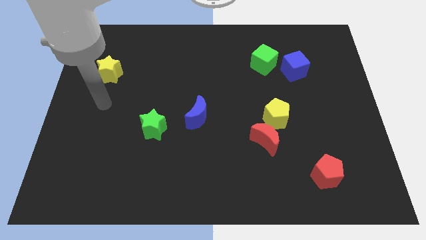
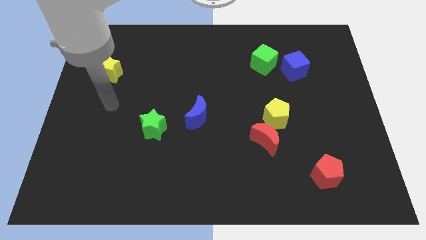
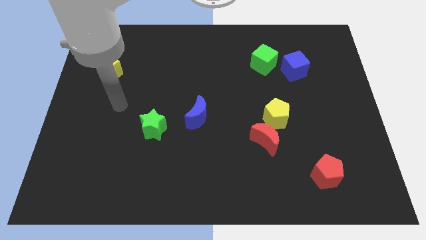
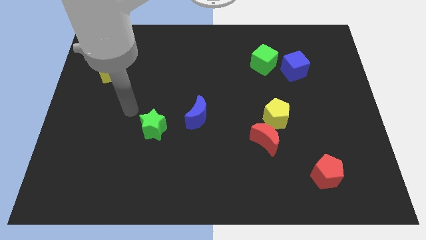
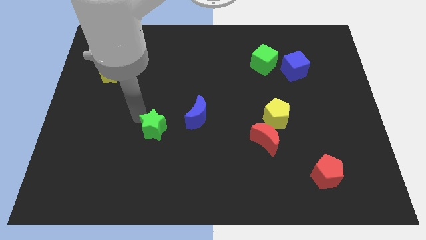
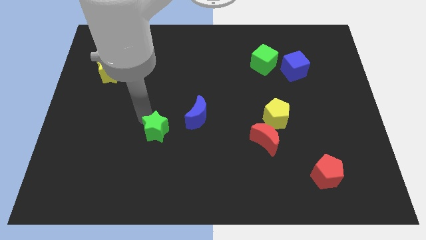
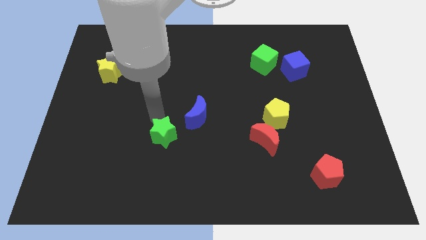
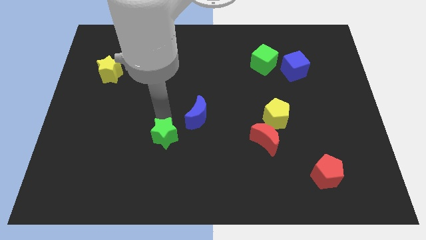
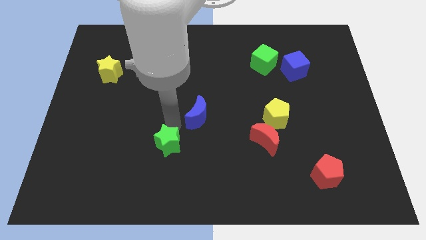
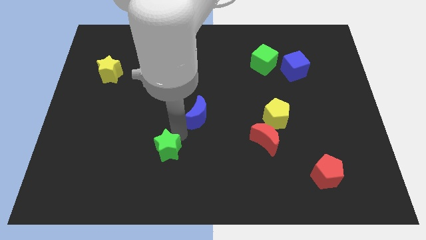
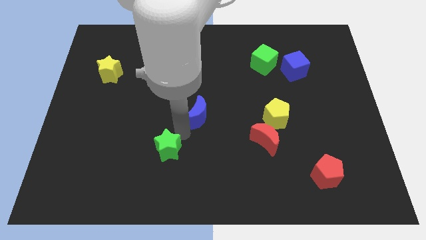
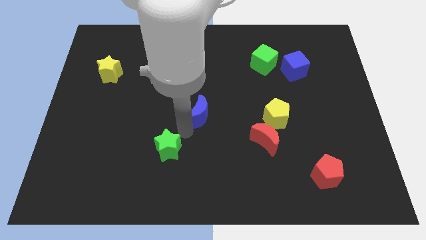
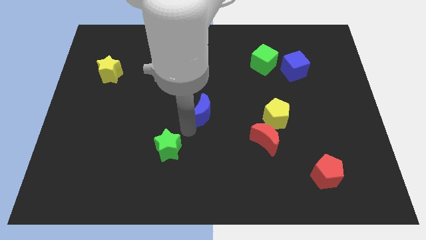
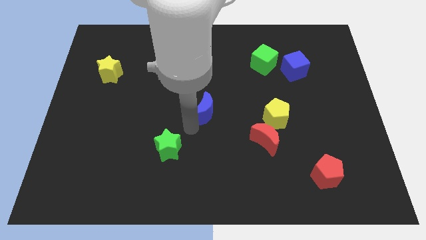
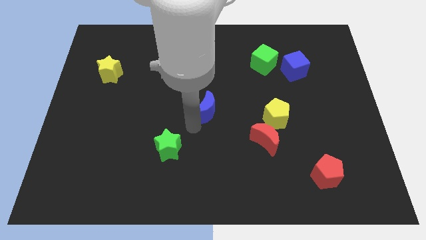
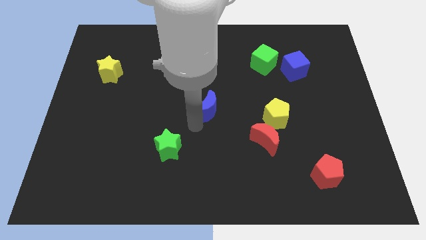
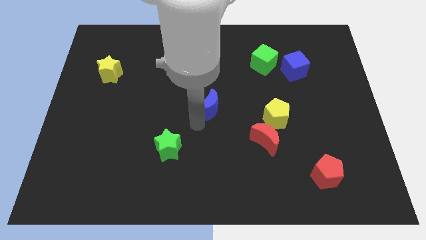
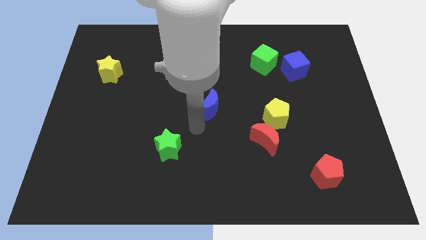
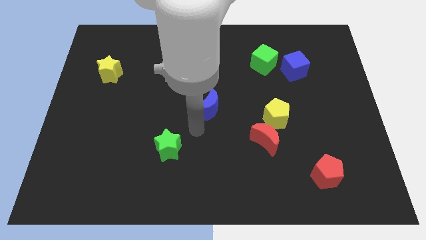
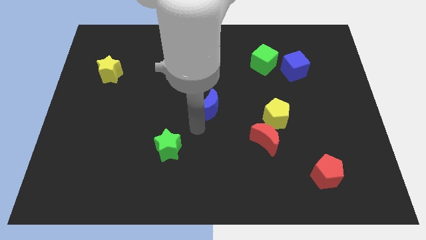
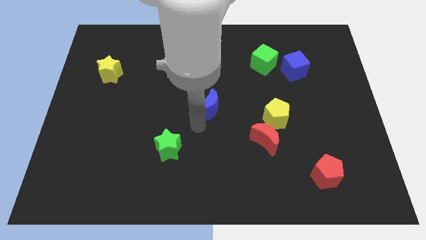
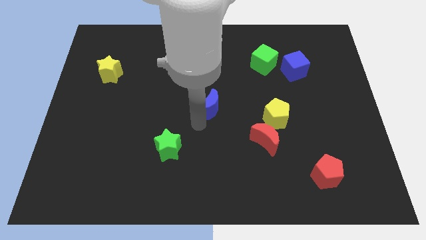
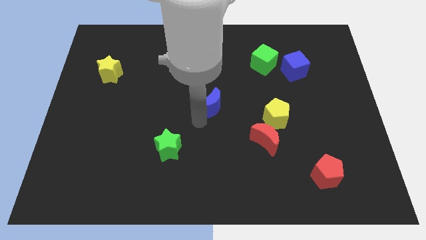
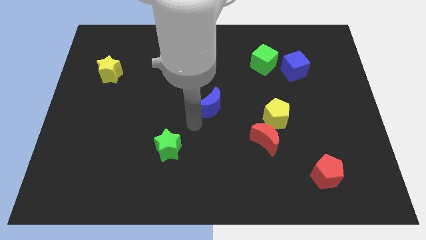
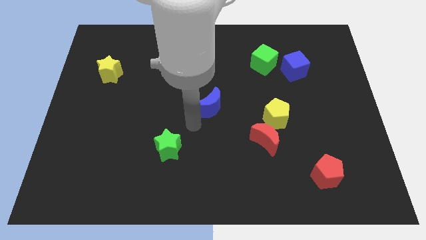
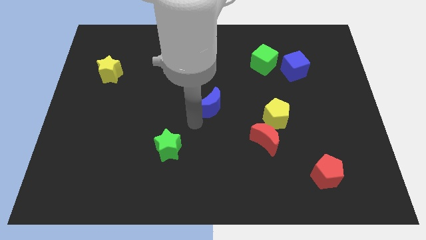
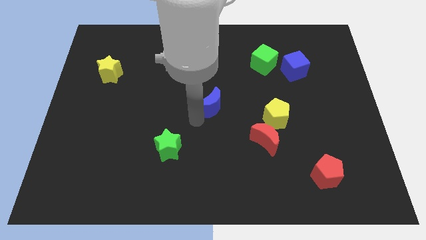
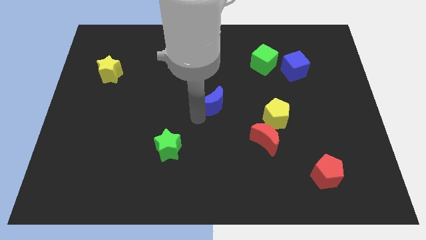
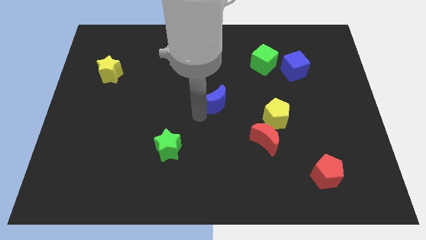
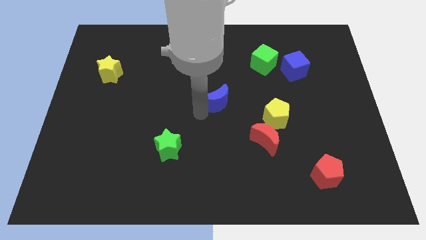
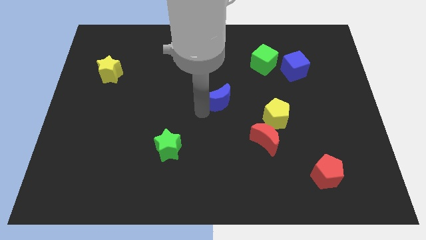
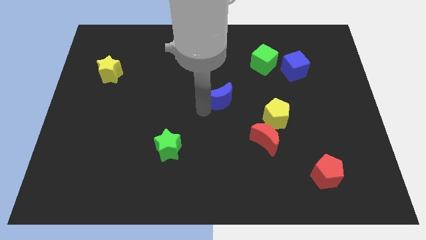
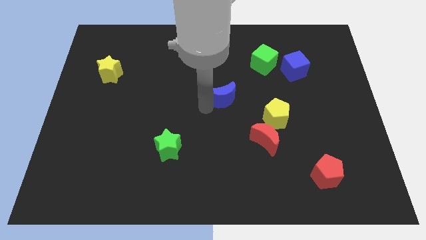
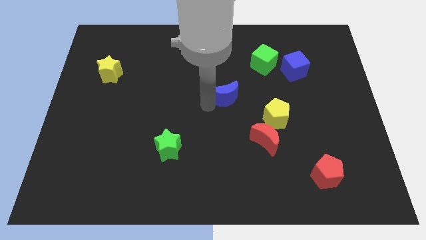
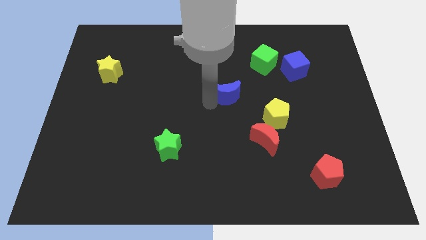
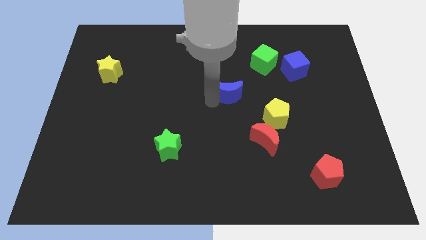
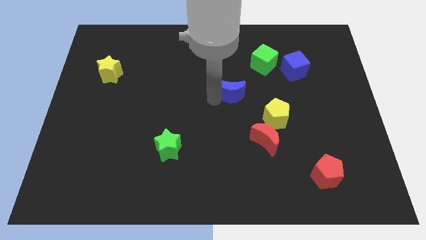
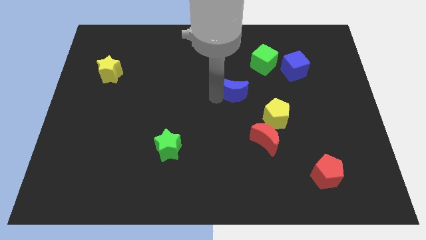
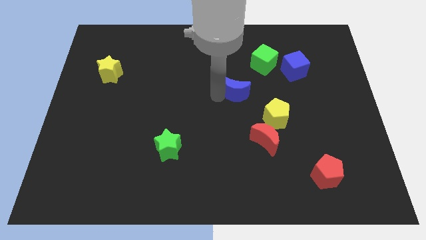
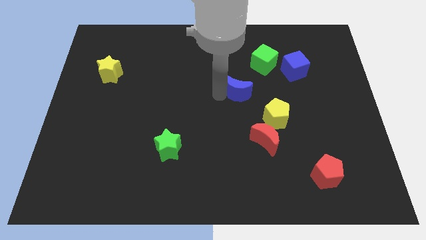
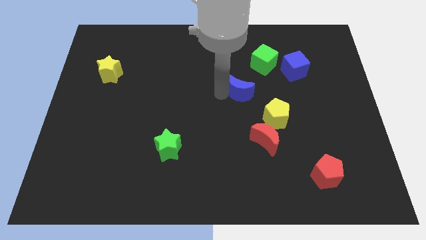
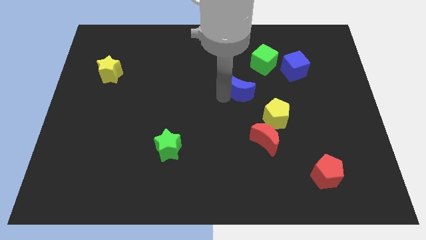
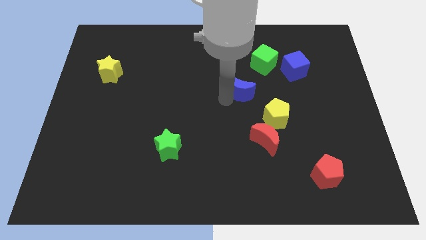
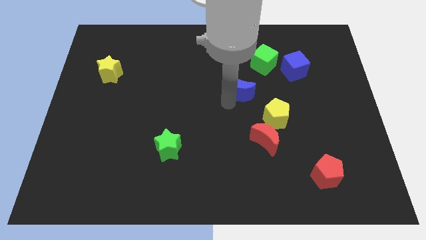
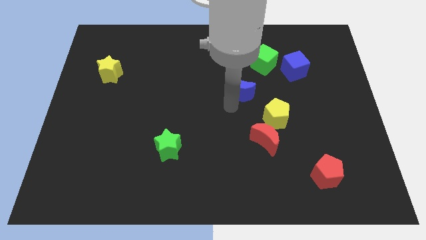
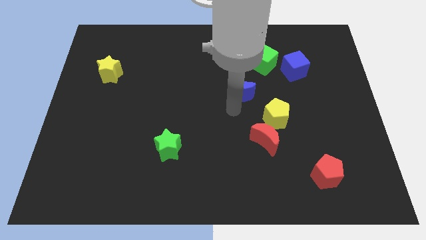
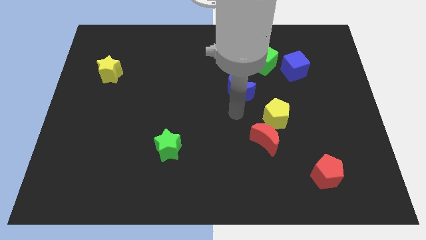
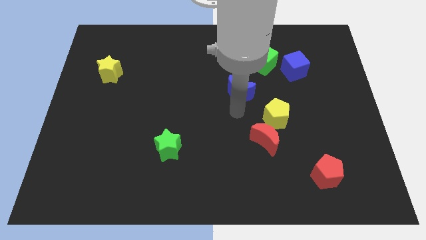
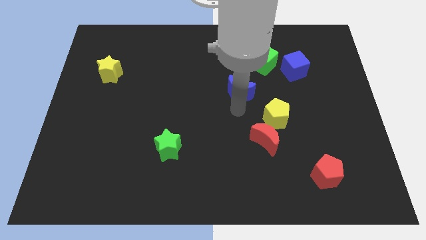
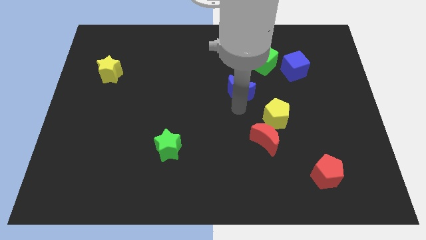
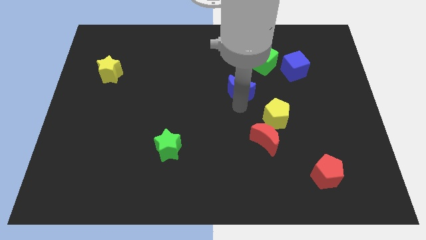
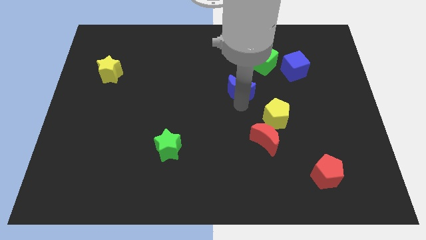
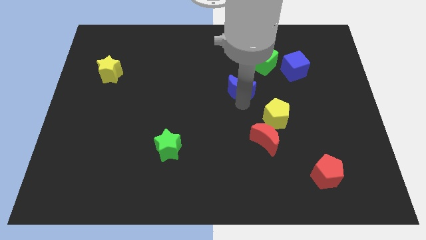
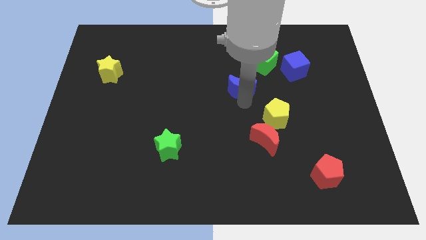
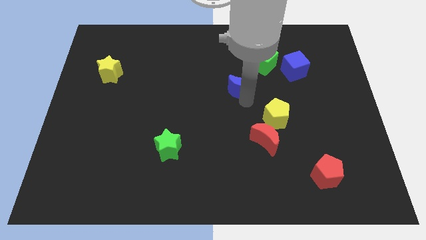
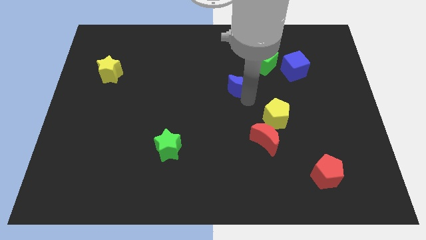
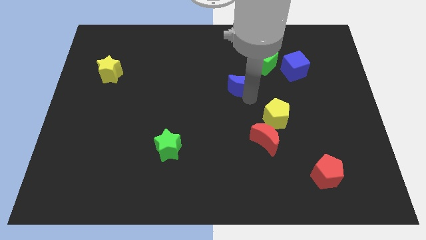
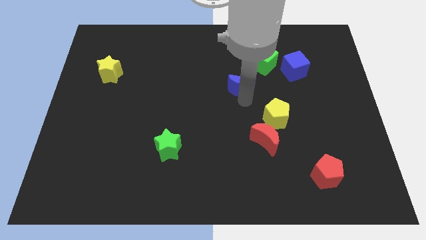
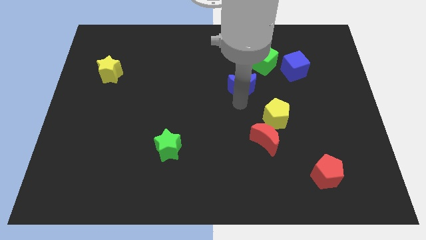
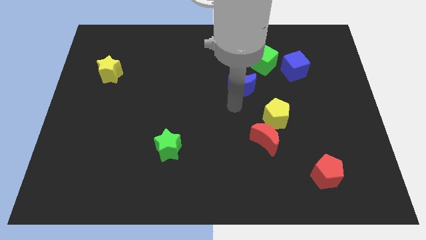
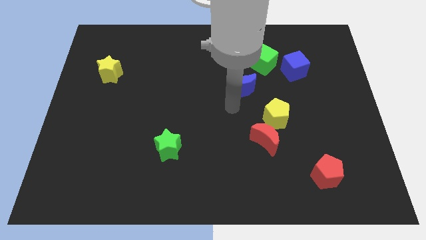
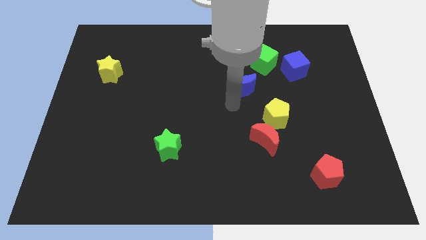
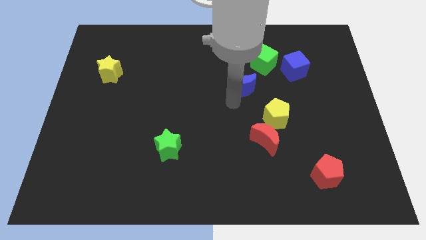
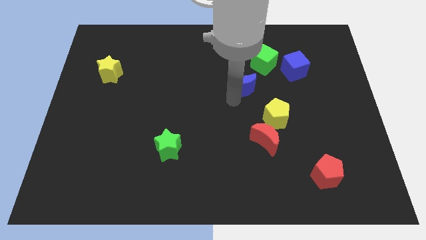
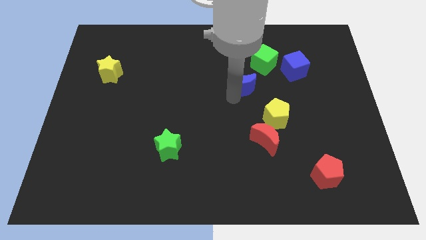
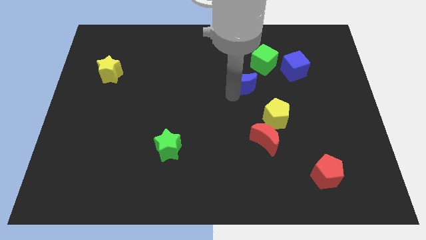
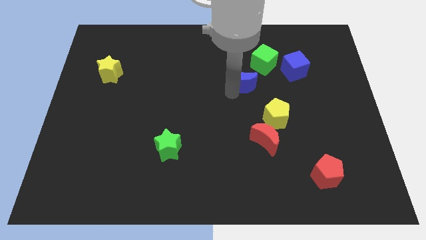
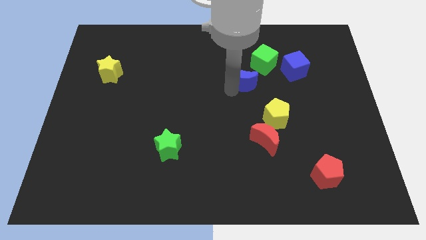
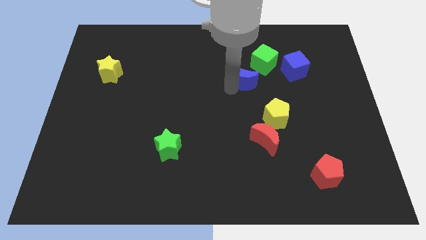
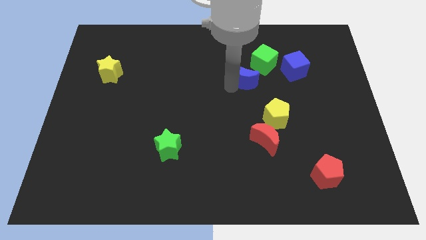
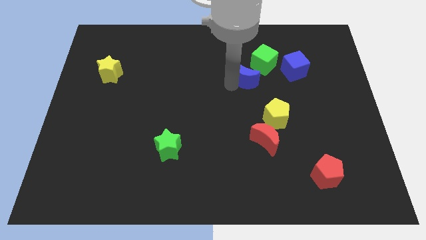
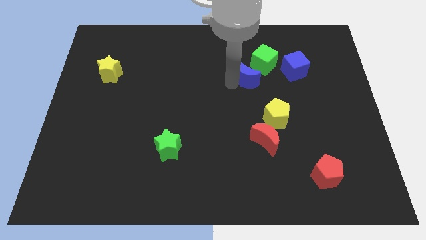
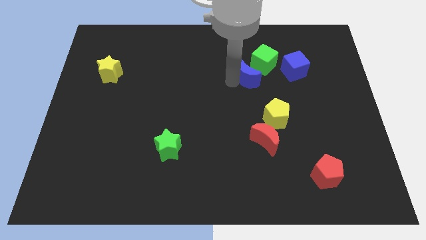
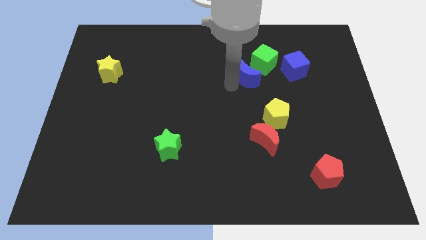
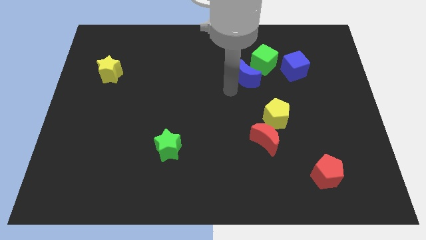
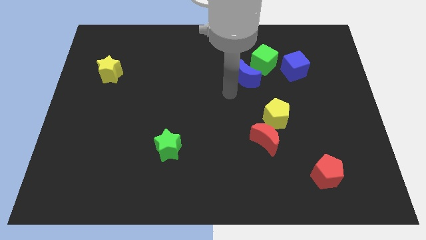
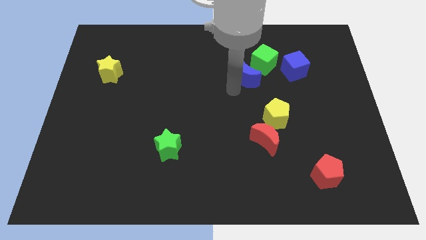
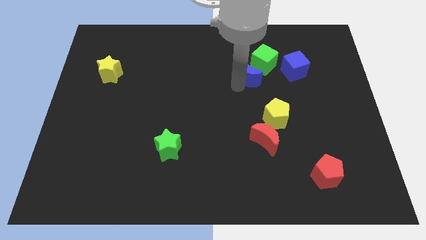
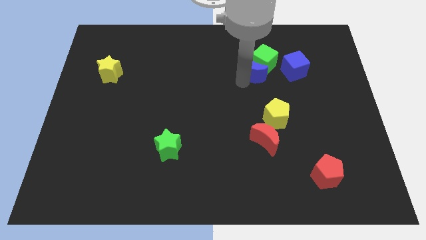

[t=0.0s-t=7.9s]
slide the blue moon close to the green cube
